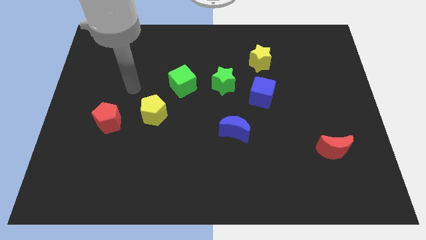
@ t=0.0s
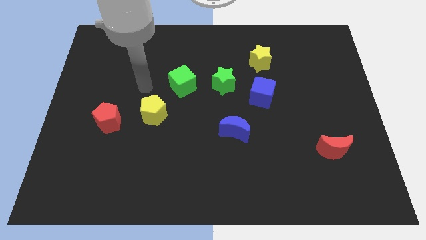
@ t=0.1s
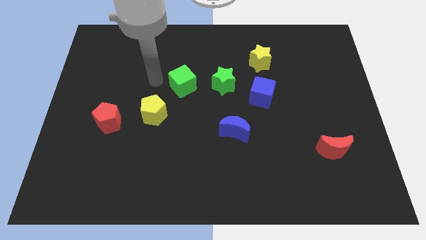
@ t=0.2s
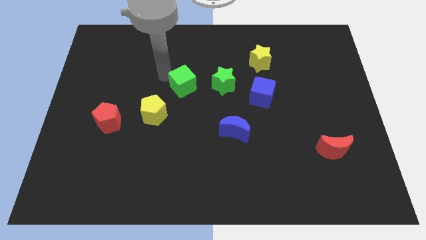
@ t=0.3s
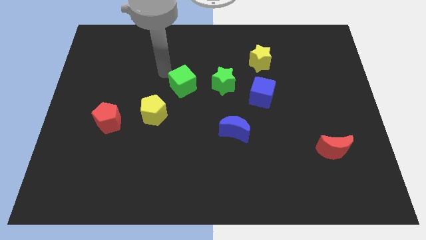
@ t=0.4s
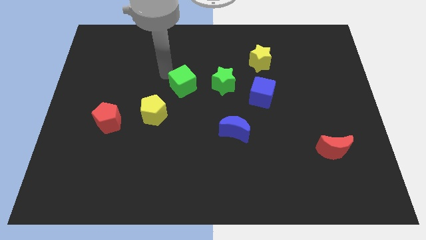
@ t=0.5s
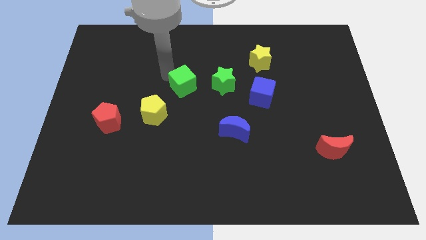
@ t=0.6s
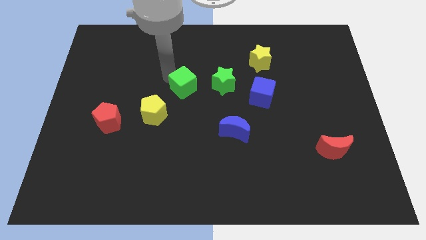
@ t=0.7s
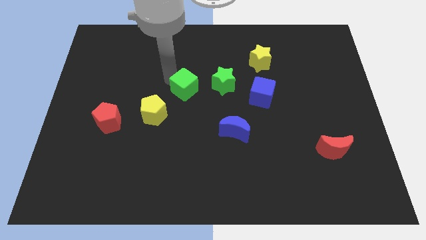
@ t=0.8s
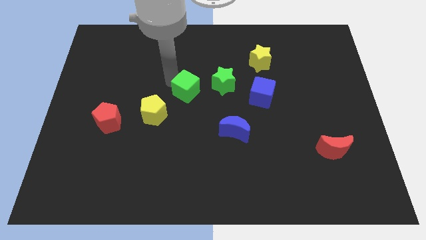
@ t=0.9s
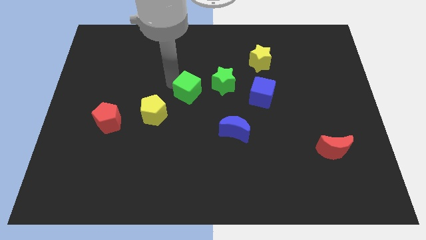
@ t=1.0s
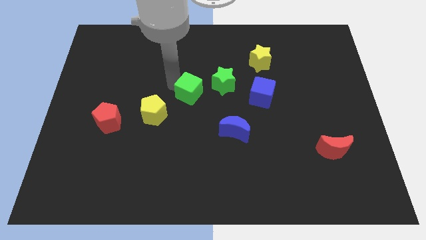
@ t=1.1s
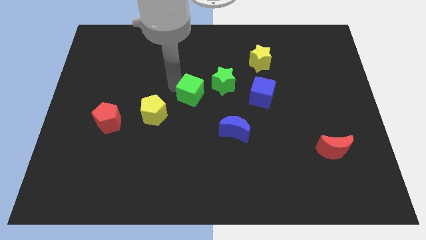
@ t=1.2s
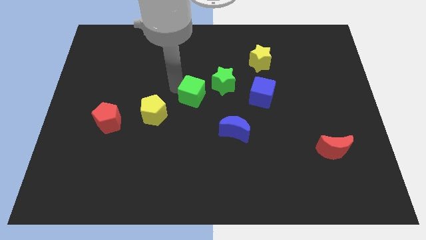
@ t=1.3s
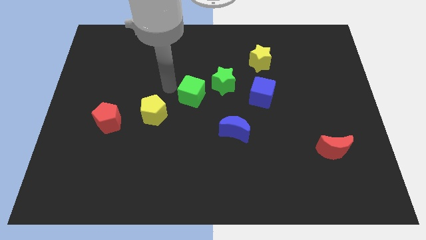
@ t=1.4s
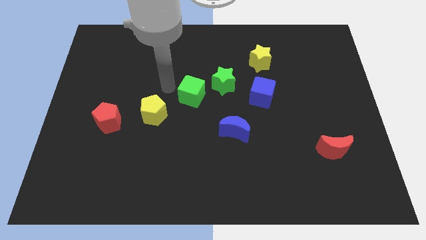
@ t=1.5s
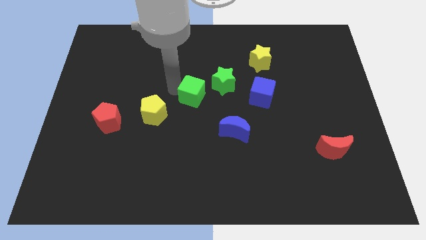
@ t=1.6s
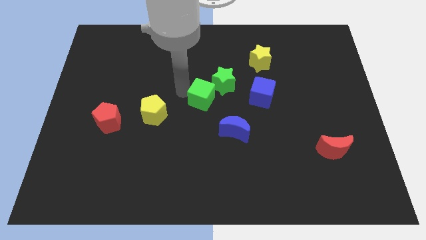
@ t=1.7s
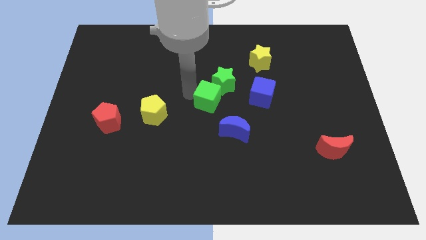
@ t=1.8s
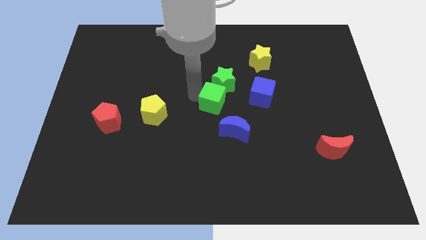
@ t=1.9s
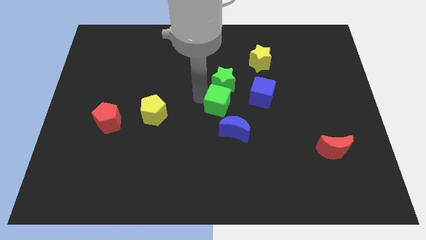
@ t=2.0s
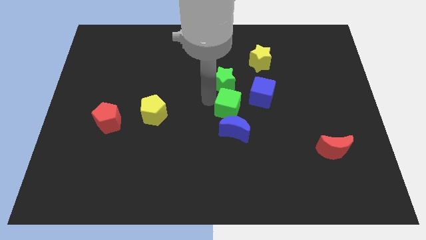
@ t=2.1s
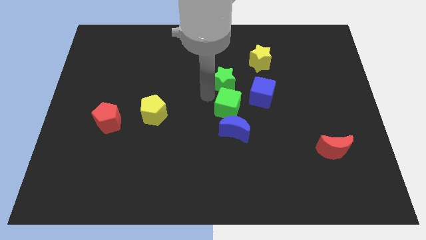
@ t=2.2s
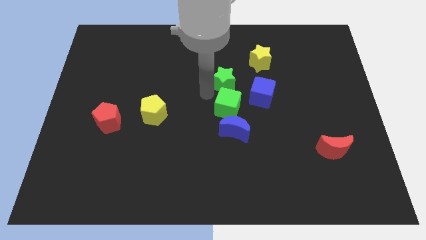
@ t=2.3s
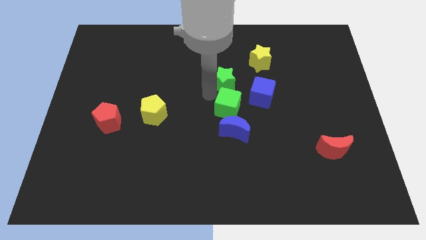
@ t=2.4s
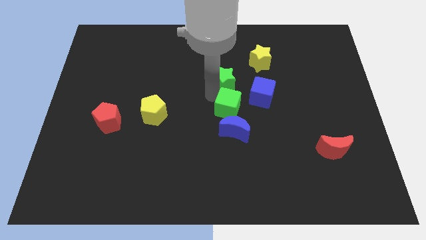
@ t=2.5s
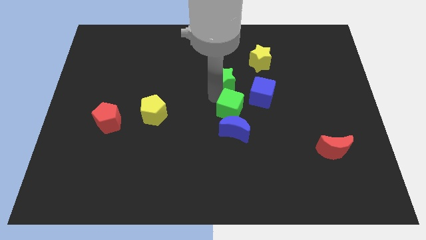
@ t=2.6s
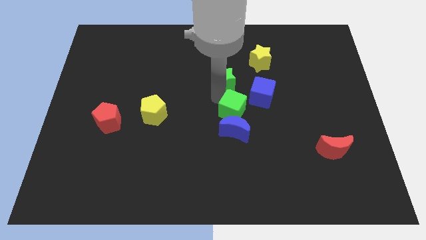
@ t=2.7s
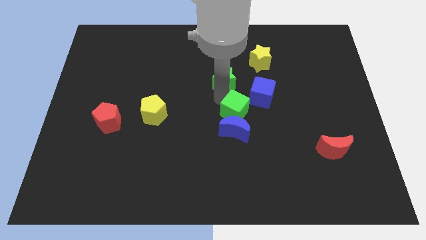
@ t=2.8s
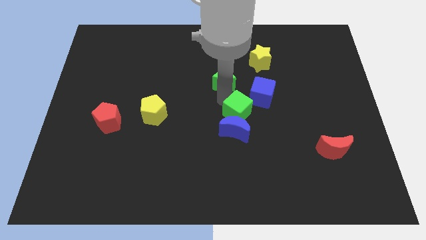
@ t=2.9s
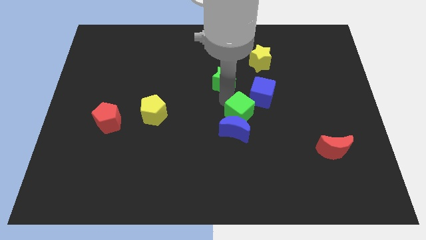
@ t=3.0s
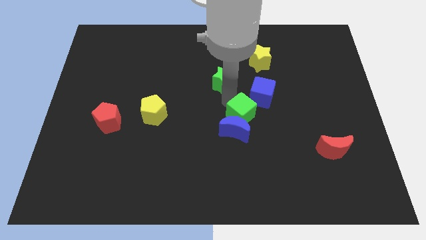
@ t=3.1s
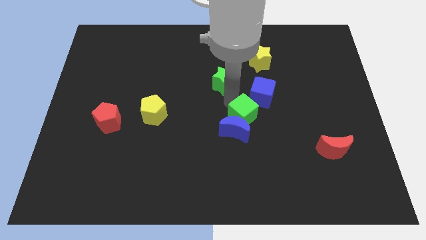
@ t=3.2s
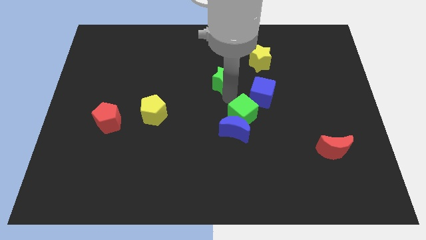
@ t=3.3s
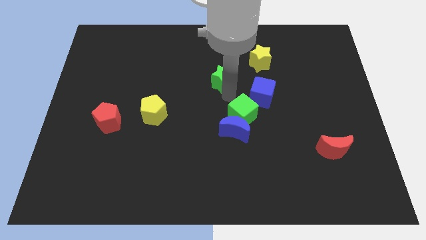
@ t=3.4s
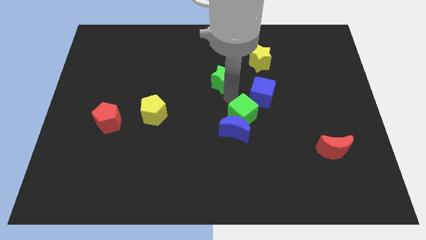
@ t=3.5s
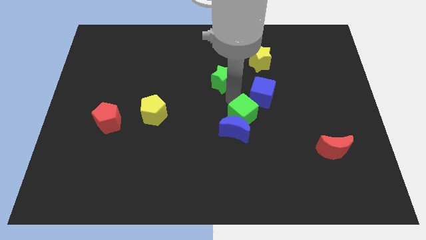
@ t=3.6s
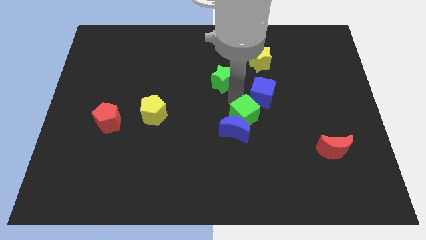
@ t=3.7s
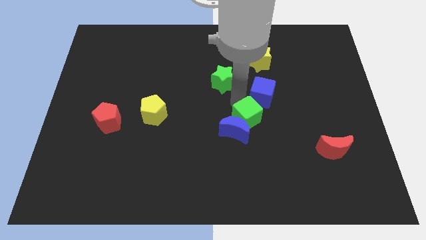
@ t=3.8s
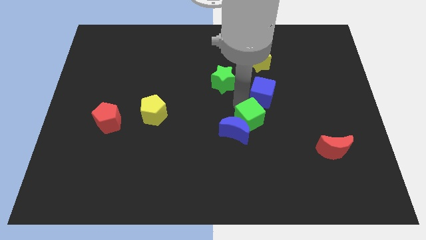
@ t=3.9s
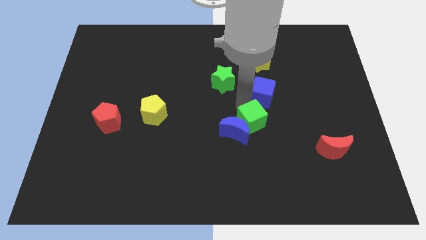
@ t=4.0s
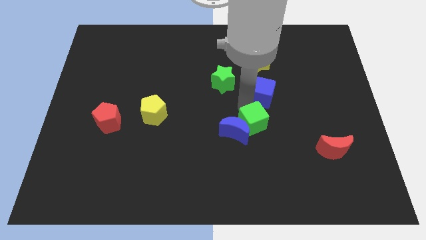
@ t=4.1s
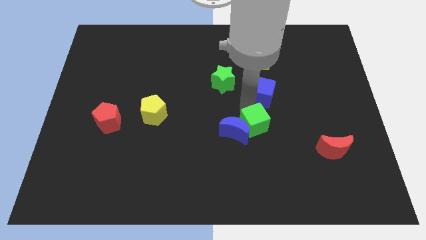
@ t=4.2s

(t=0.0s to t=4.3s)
slide the green cube down and to the right

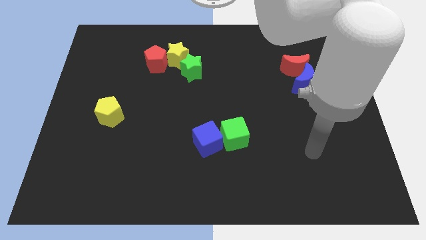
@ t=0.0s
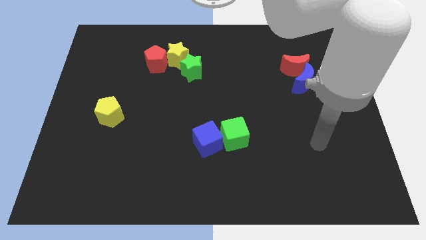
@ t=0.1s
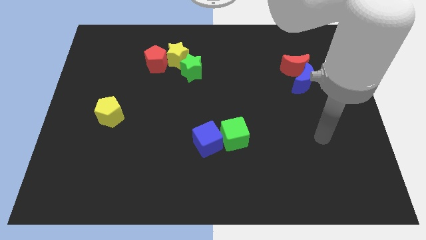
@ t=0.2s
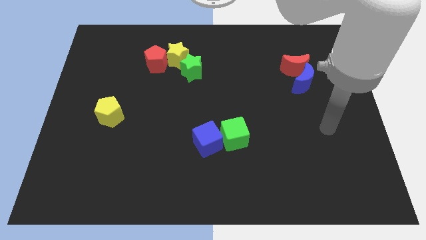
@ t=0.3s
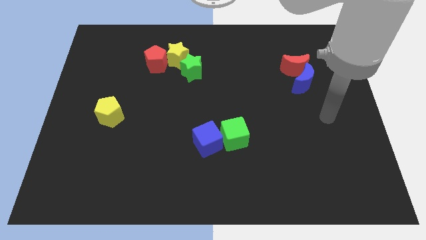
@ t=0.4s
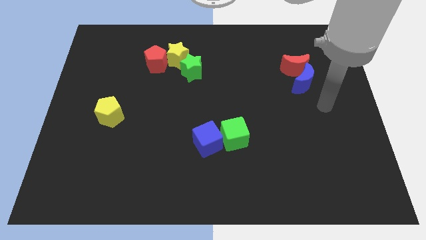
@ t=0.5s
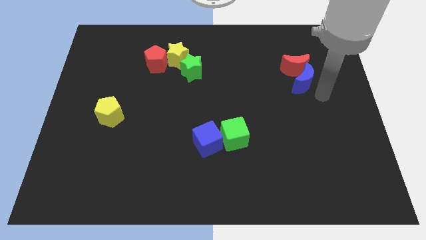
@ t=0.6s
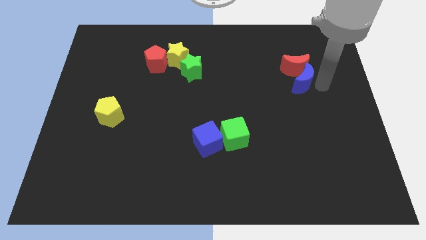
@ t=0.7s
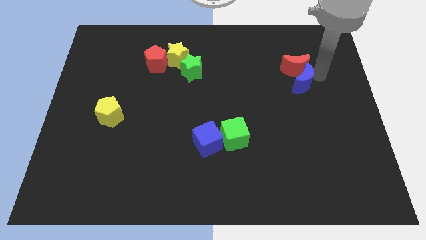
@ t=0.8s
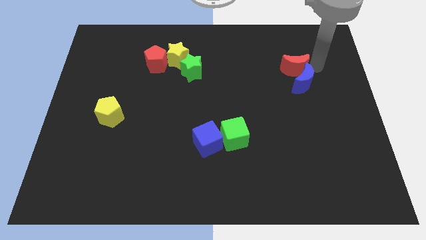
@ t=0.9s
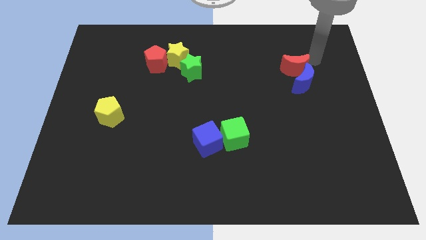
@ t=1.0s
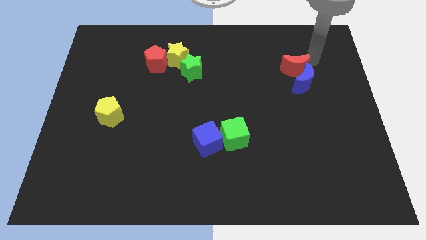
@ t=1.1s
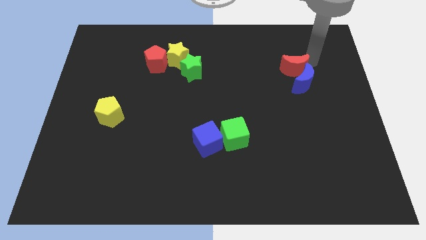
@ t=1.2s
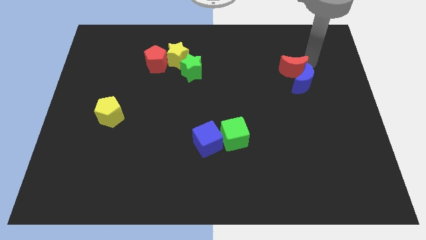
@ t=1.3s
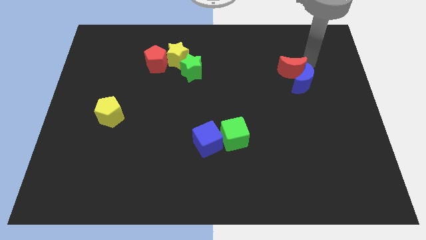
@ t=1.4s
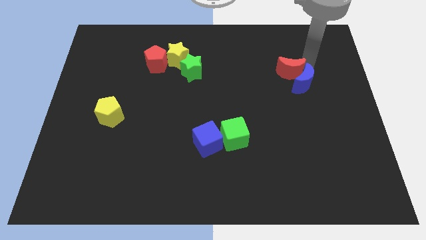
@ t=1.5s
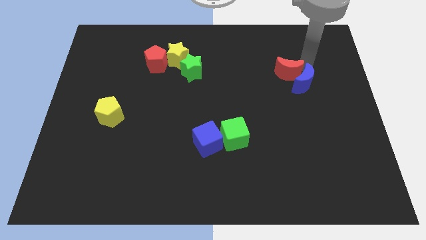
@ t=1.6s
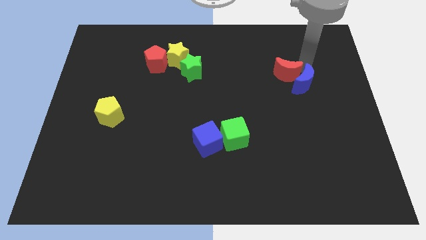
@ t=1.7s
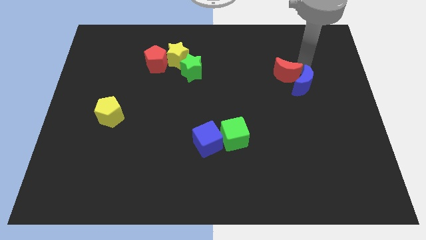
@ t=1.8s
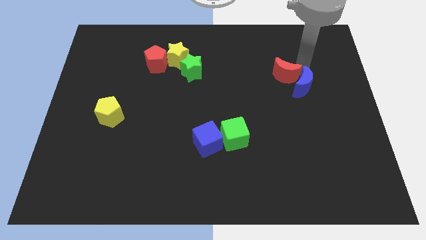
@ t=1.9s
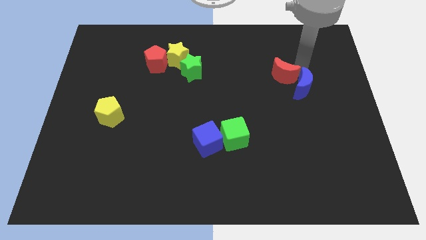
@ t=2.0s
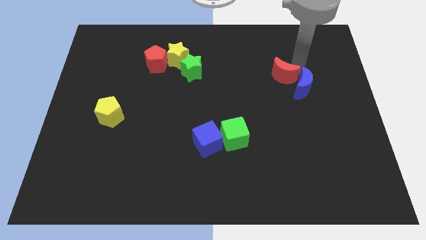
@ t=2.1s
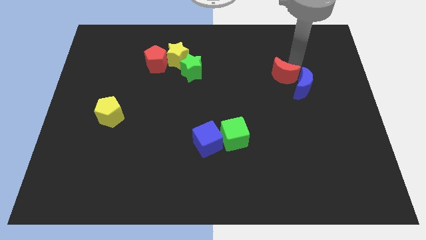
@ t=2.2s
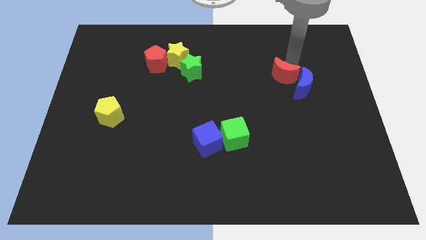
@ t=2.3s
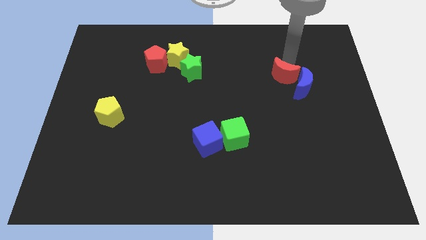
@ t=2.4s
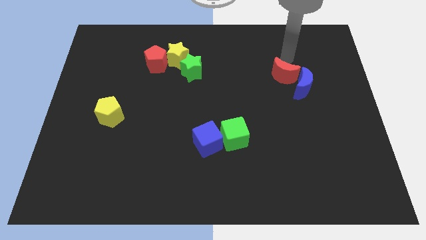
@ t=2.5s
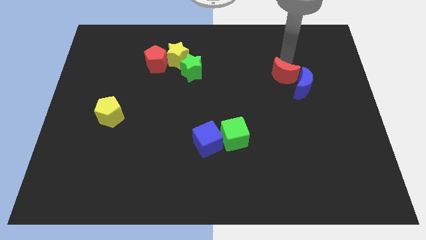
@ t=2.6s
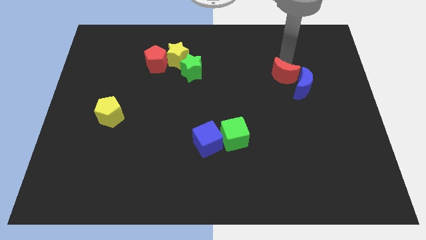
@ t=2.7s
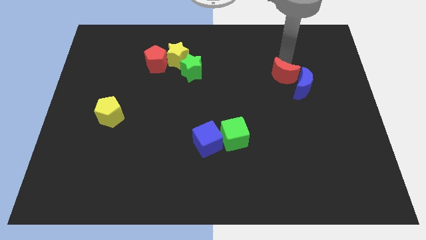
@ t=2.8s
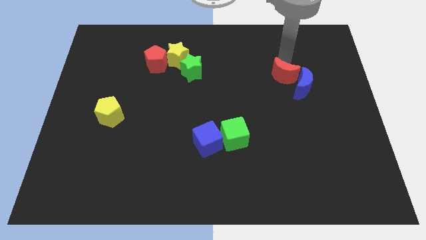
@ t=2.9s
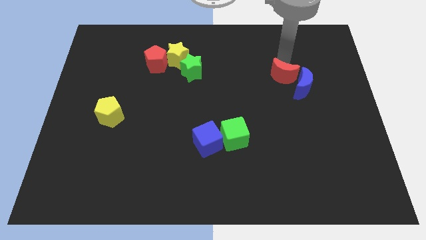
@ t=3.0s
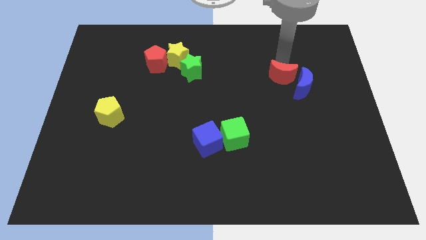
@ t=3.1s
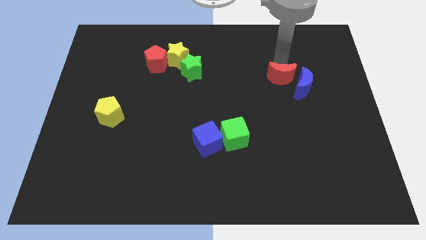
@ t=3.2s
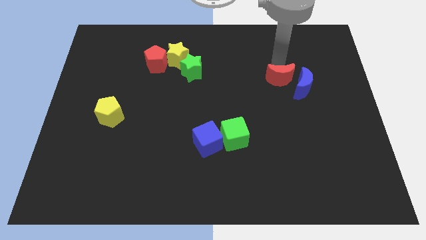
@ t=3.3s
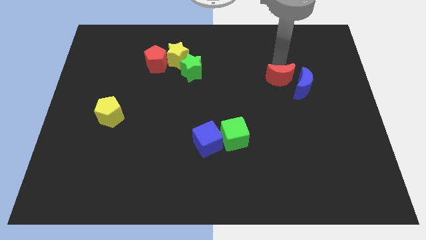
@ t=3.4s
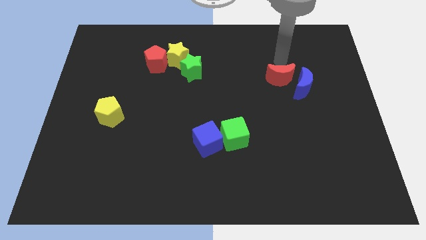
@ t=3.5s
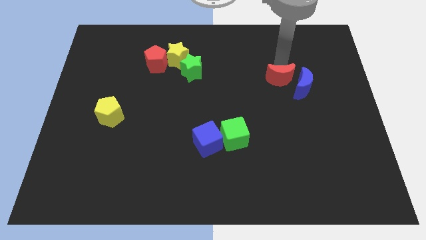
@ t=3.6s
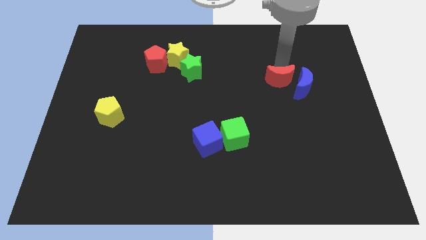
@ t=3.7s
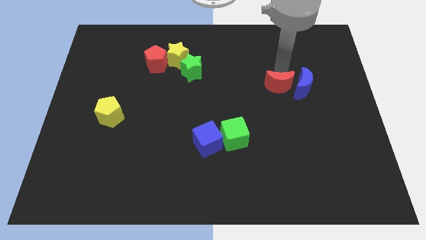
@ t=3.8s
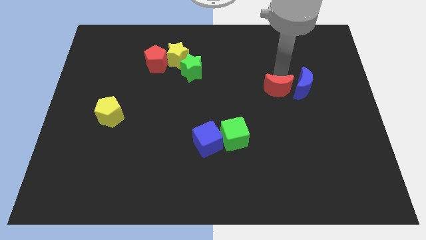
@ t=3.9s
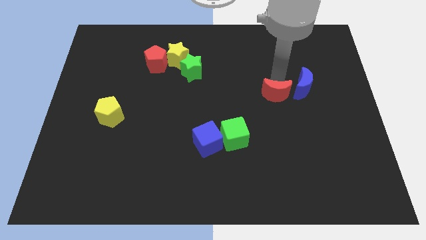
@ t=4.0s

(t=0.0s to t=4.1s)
move the red moon a little down
